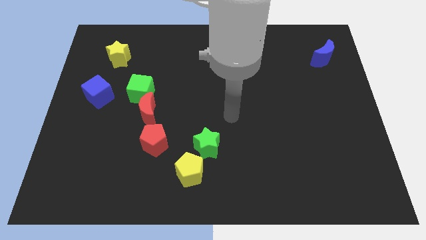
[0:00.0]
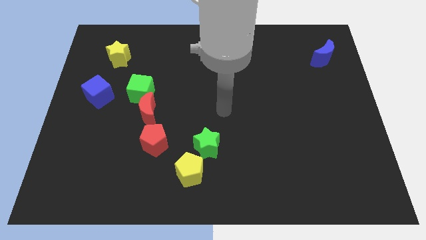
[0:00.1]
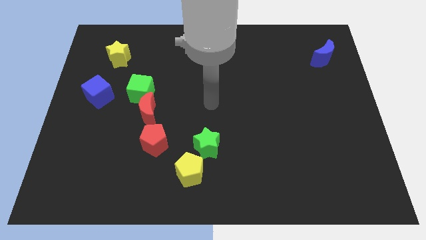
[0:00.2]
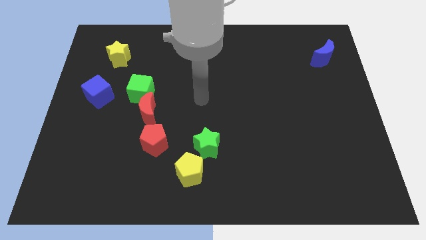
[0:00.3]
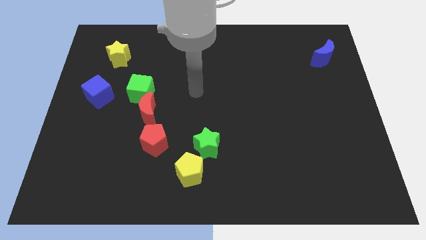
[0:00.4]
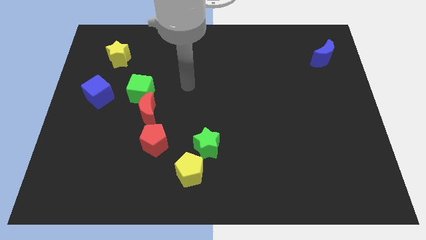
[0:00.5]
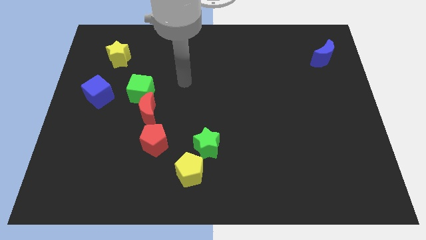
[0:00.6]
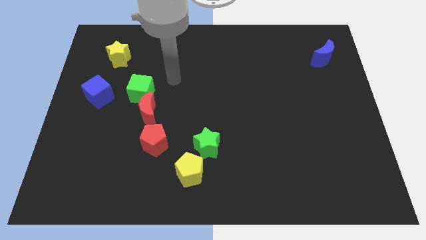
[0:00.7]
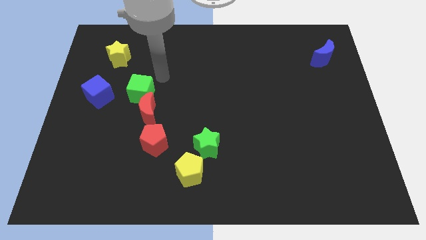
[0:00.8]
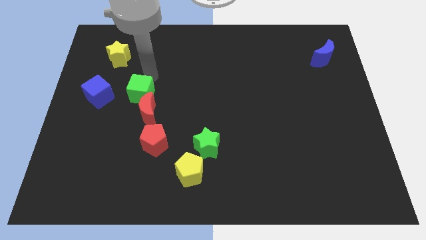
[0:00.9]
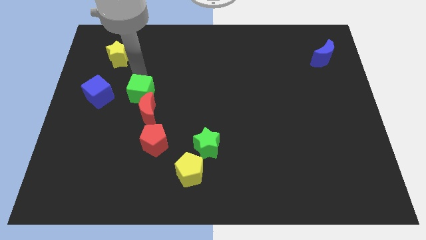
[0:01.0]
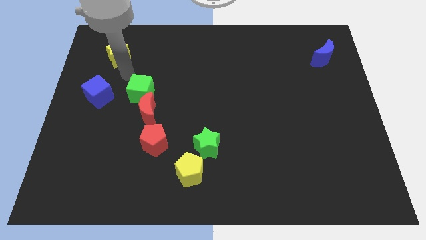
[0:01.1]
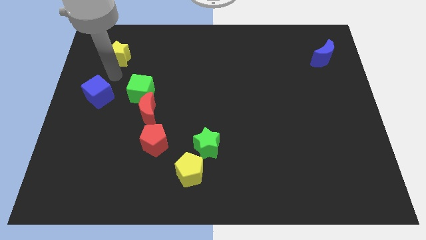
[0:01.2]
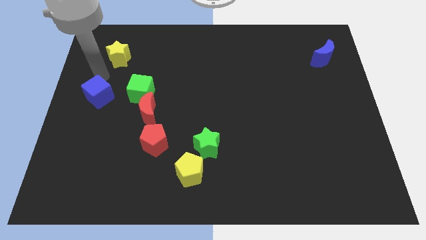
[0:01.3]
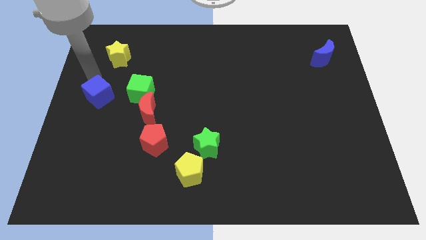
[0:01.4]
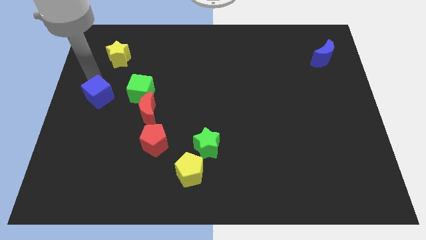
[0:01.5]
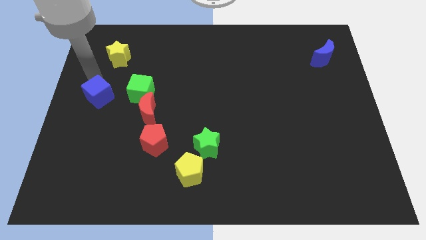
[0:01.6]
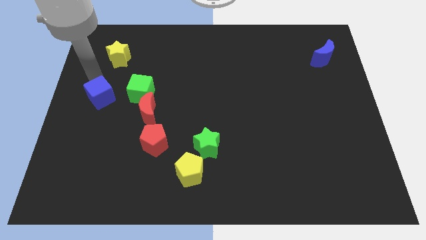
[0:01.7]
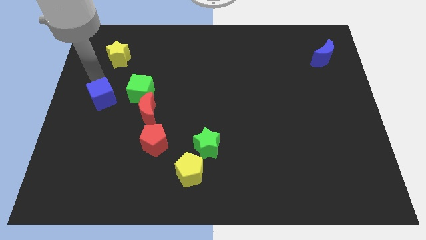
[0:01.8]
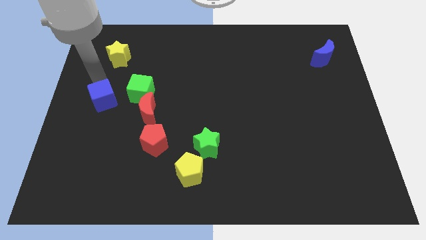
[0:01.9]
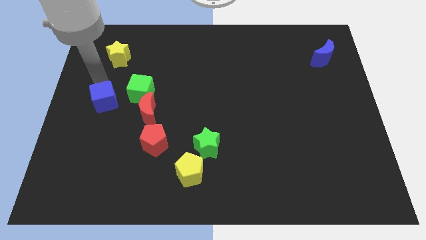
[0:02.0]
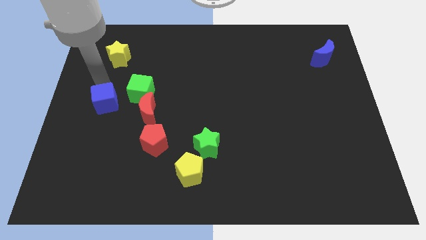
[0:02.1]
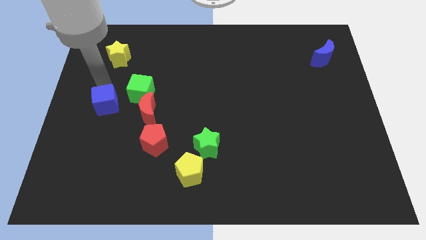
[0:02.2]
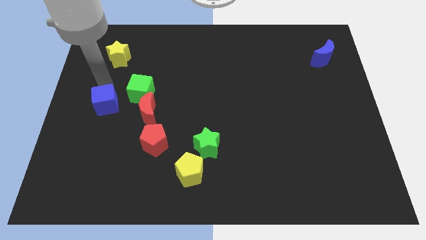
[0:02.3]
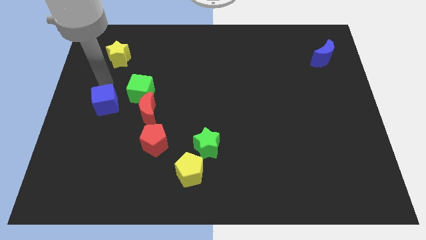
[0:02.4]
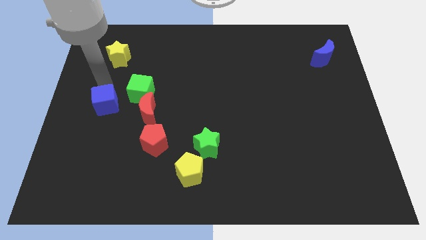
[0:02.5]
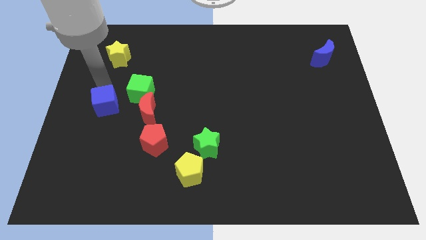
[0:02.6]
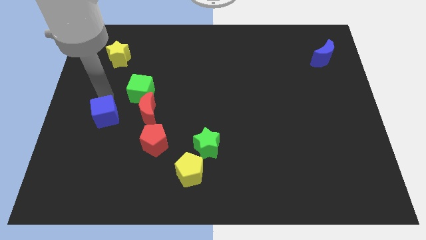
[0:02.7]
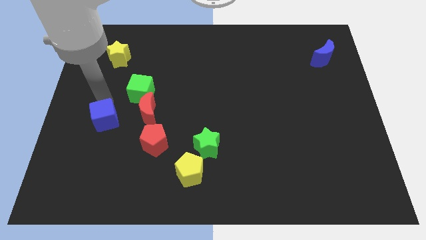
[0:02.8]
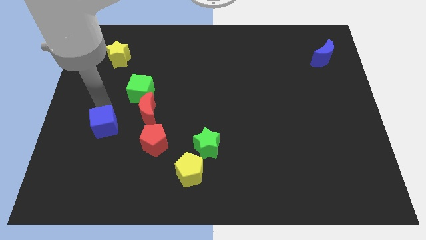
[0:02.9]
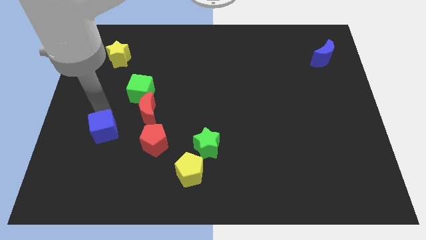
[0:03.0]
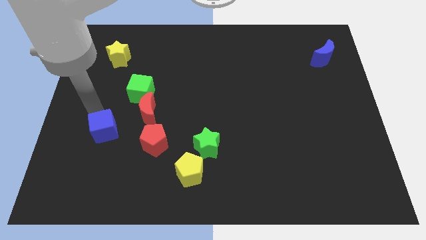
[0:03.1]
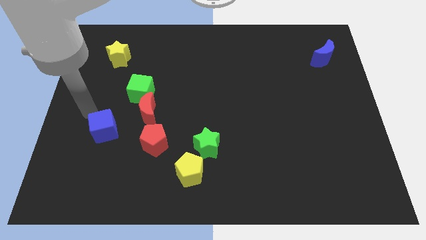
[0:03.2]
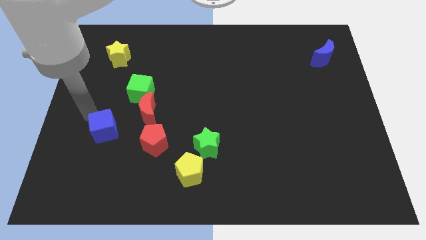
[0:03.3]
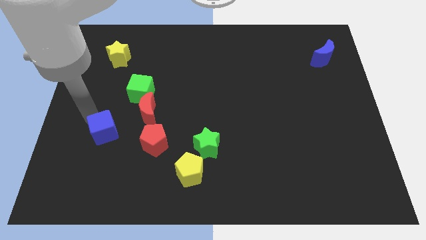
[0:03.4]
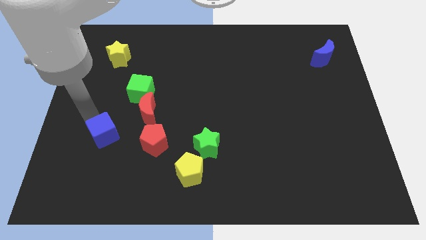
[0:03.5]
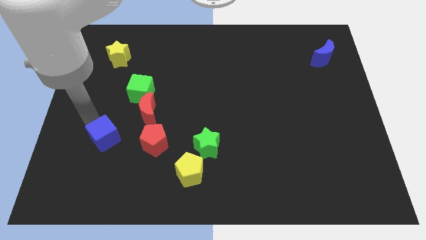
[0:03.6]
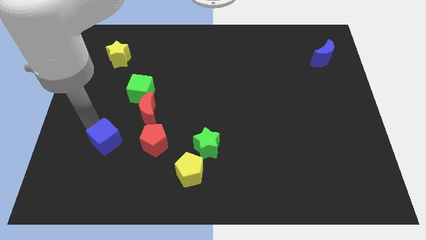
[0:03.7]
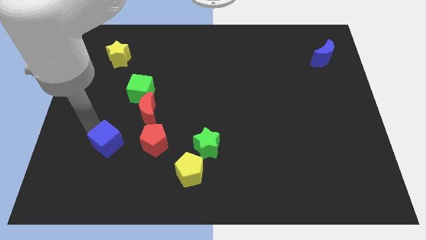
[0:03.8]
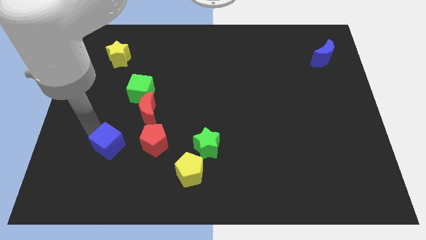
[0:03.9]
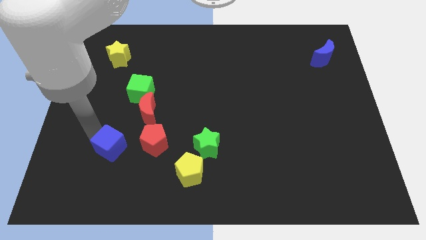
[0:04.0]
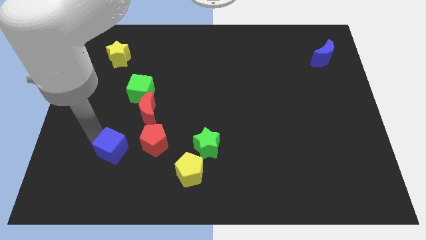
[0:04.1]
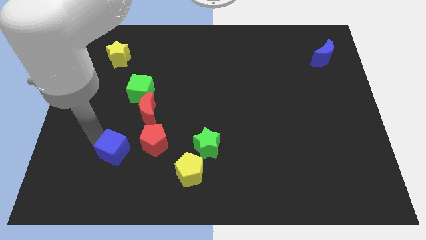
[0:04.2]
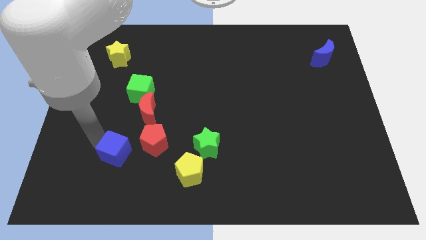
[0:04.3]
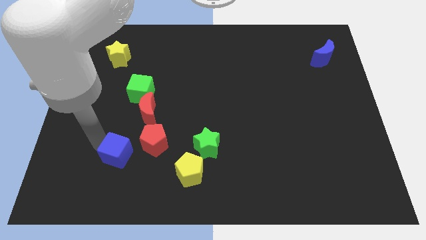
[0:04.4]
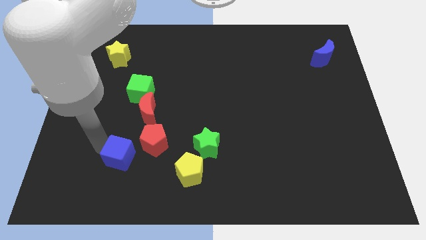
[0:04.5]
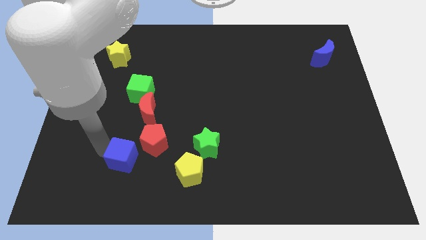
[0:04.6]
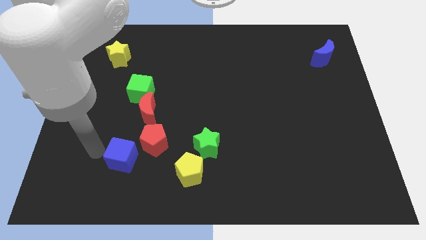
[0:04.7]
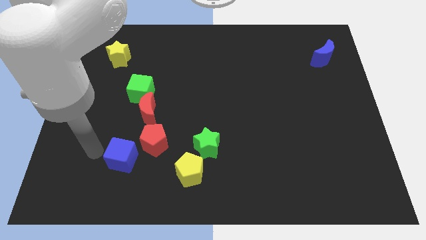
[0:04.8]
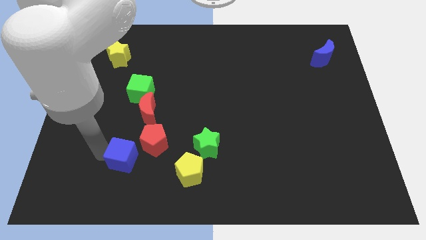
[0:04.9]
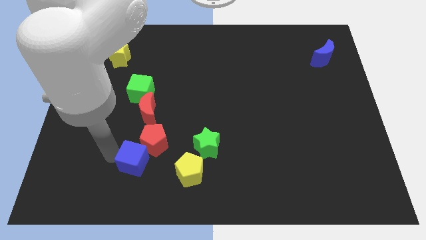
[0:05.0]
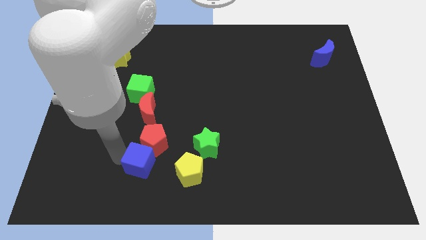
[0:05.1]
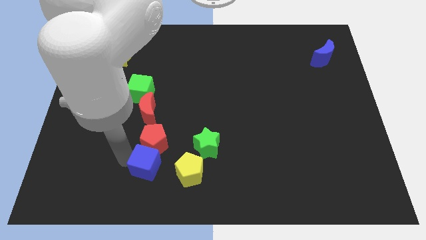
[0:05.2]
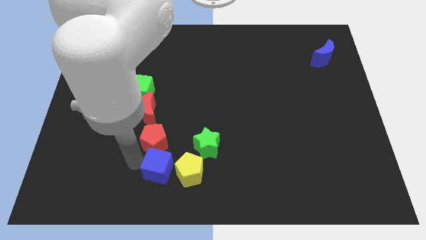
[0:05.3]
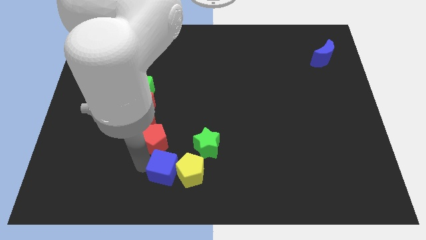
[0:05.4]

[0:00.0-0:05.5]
slide the blue cube towards the yellow pentagon

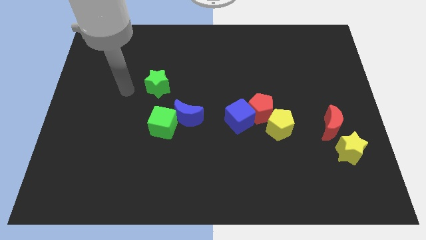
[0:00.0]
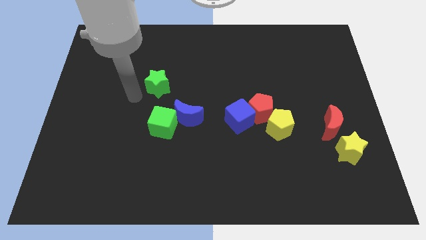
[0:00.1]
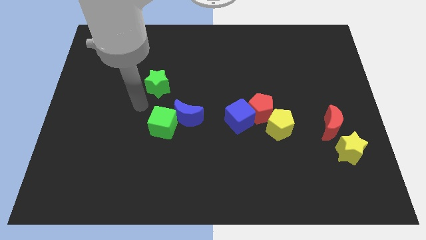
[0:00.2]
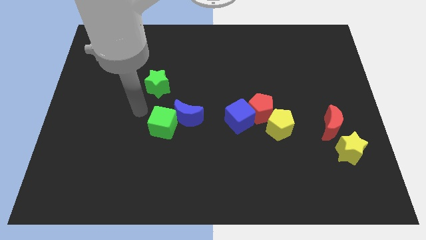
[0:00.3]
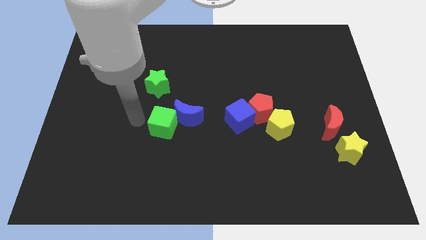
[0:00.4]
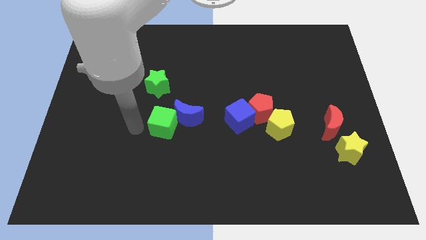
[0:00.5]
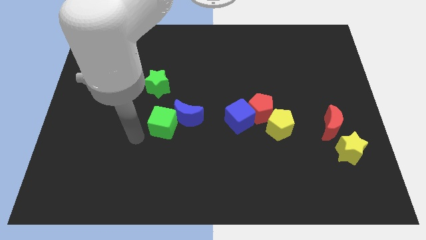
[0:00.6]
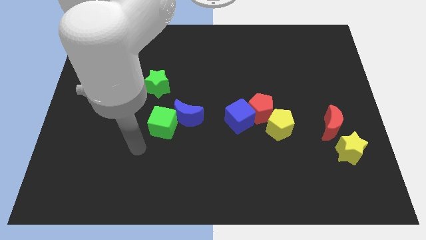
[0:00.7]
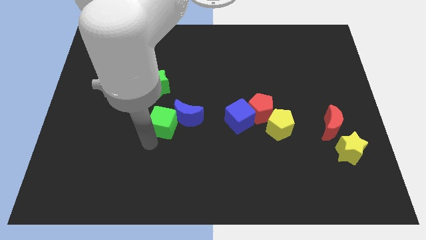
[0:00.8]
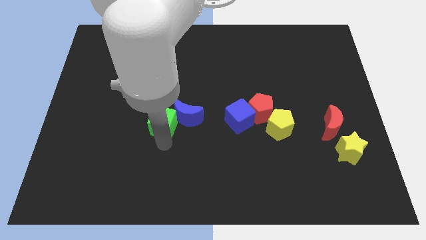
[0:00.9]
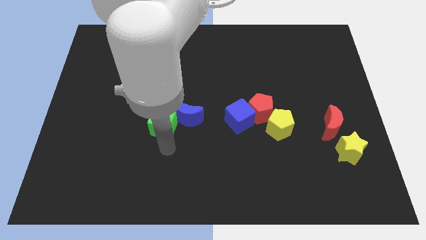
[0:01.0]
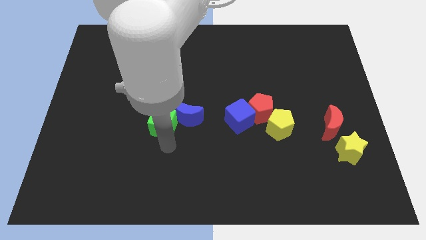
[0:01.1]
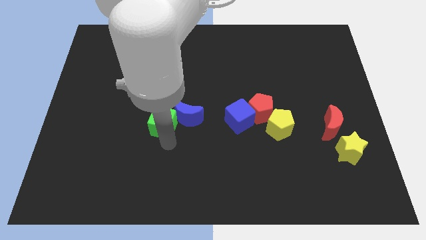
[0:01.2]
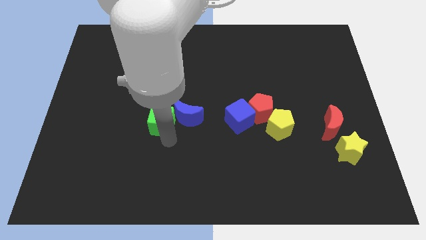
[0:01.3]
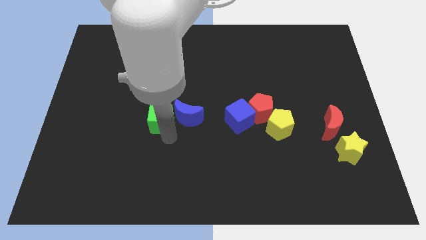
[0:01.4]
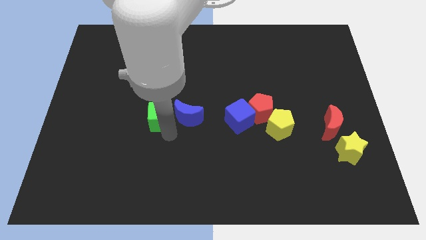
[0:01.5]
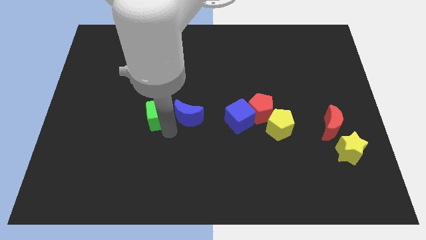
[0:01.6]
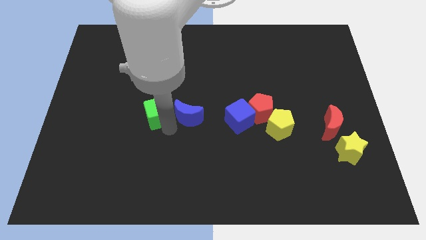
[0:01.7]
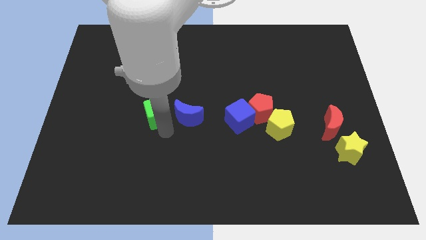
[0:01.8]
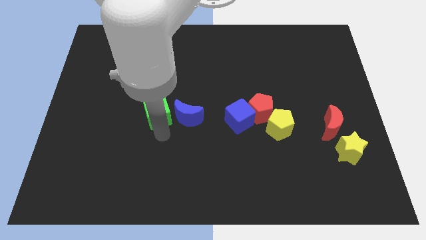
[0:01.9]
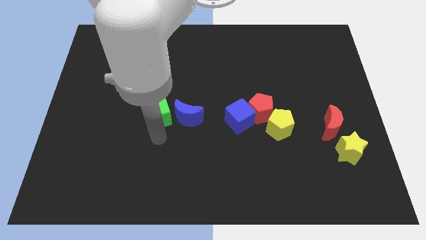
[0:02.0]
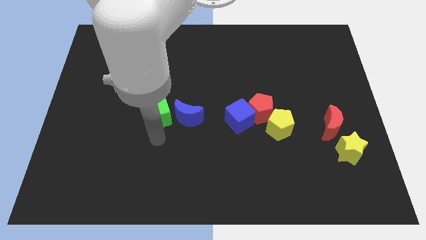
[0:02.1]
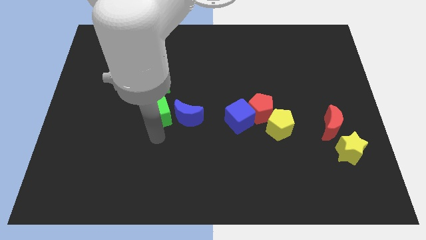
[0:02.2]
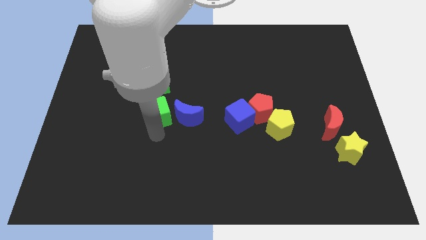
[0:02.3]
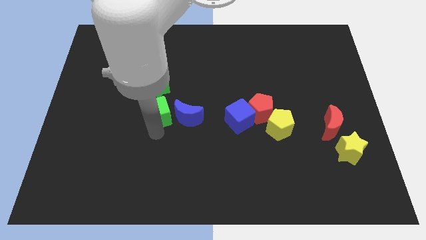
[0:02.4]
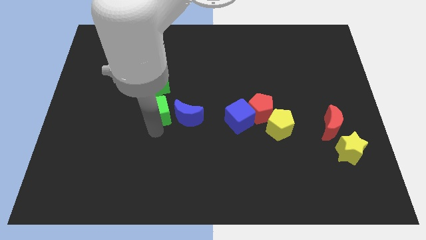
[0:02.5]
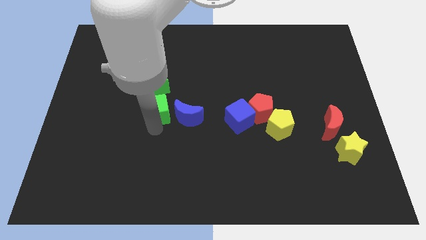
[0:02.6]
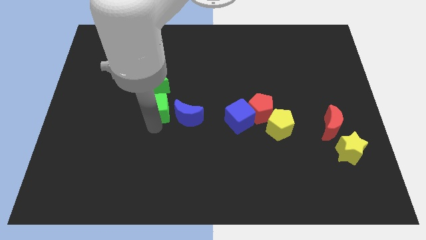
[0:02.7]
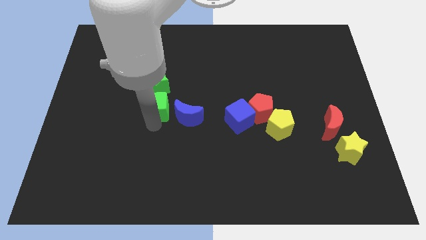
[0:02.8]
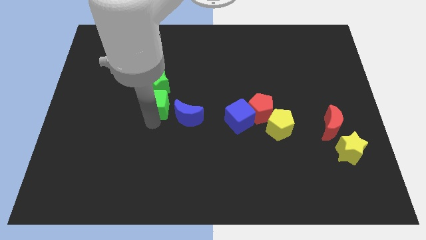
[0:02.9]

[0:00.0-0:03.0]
push the green cube towards the green star
